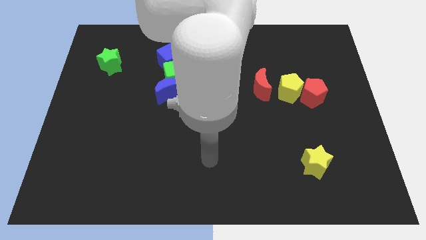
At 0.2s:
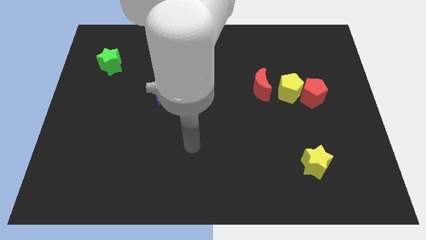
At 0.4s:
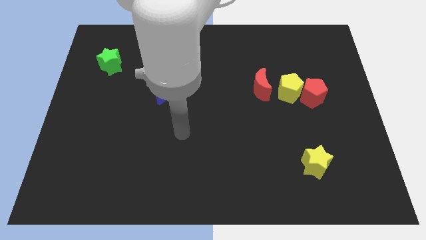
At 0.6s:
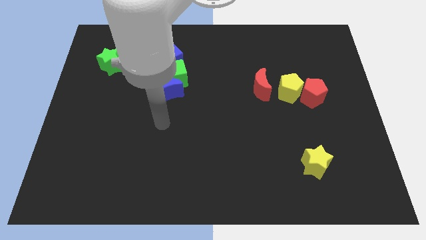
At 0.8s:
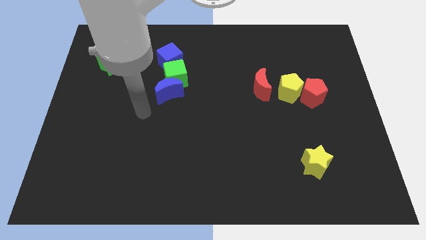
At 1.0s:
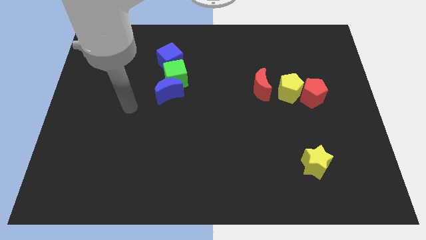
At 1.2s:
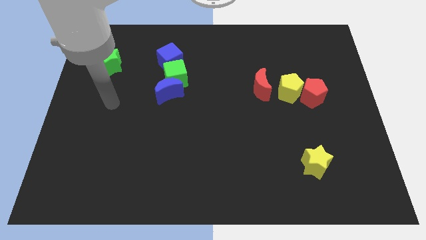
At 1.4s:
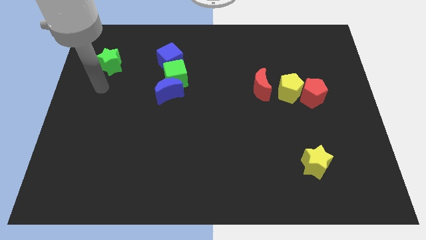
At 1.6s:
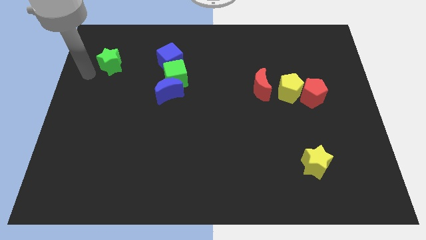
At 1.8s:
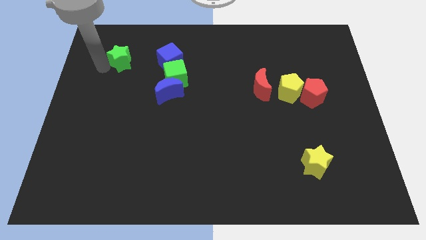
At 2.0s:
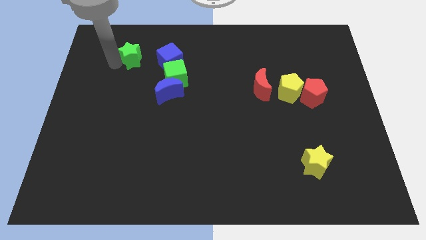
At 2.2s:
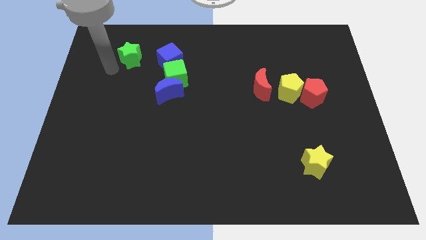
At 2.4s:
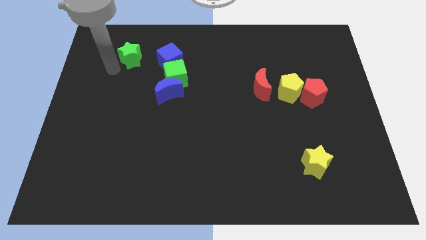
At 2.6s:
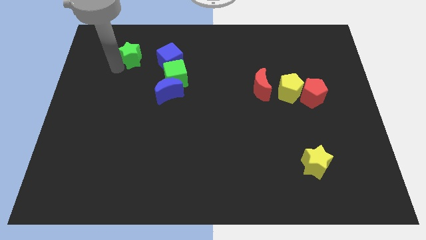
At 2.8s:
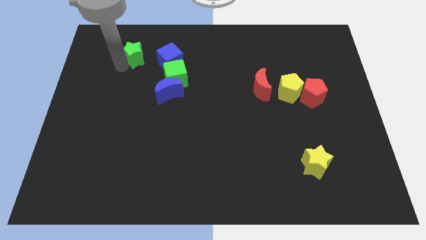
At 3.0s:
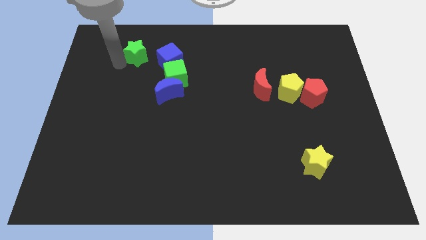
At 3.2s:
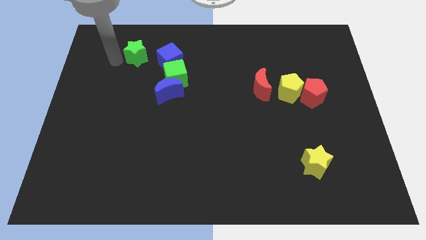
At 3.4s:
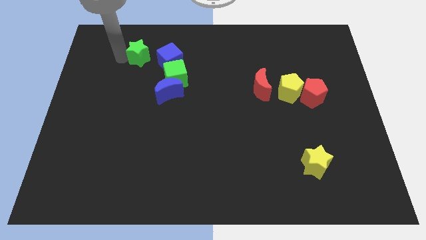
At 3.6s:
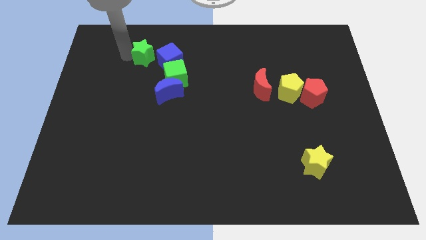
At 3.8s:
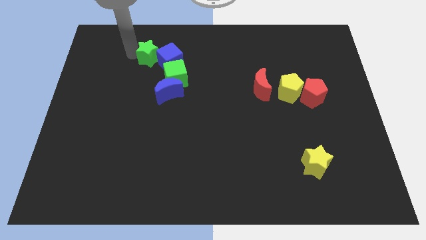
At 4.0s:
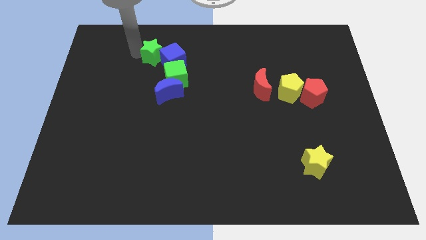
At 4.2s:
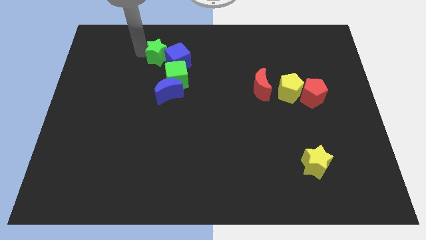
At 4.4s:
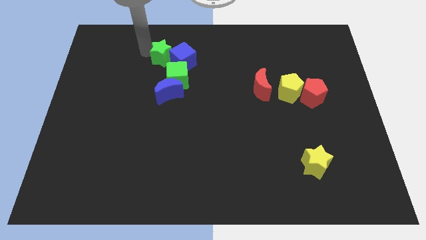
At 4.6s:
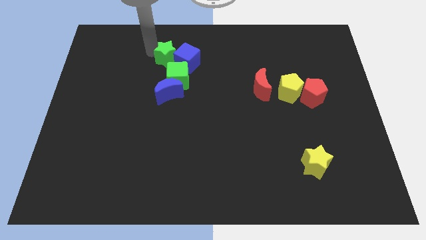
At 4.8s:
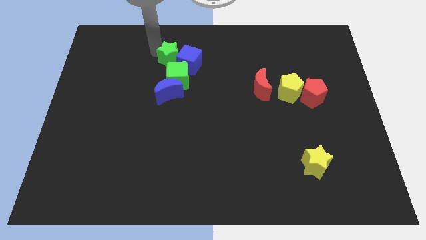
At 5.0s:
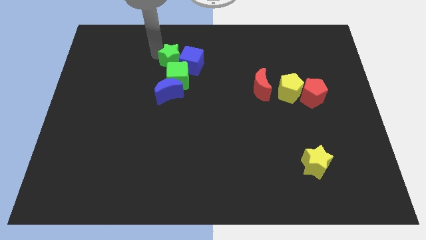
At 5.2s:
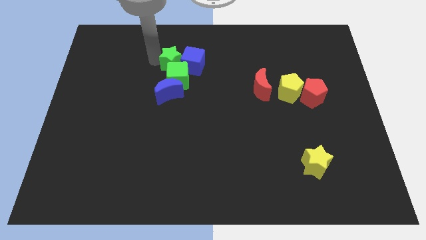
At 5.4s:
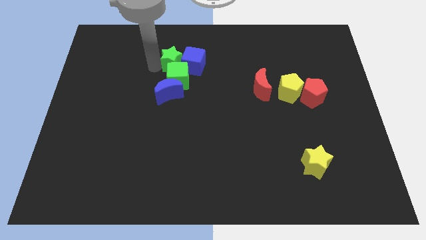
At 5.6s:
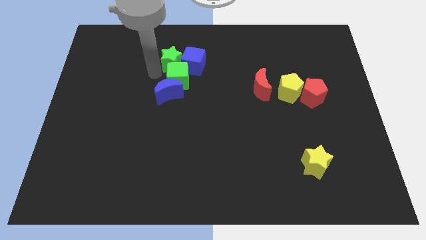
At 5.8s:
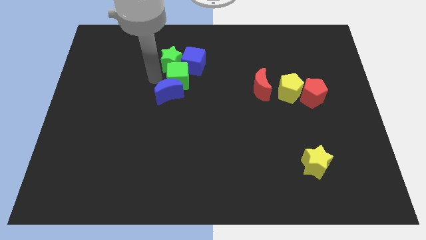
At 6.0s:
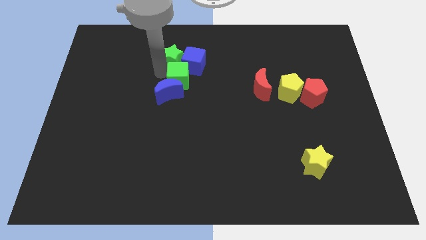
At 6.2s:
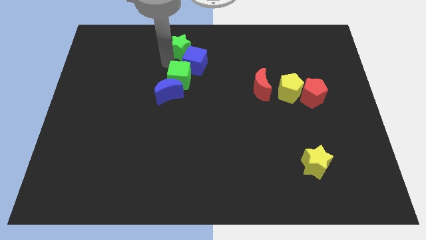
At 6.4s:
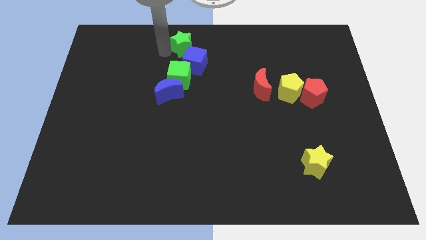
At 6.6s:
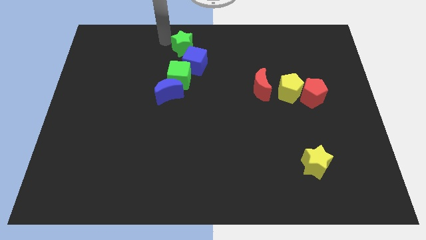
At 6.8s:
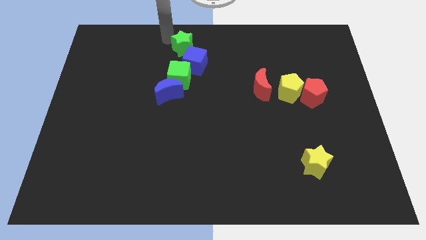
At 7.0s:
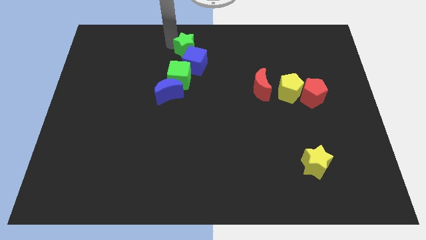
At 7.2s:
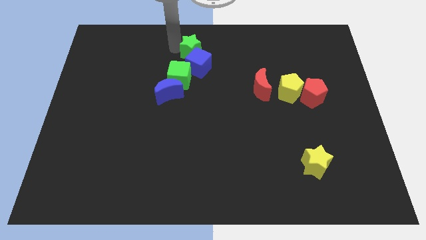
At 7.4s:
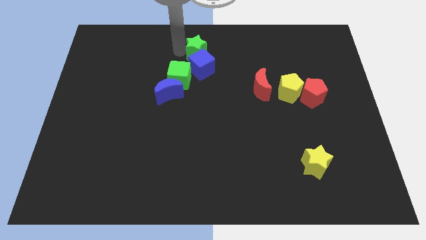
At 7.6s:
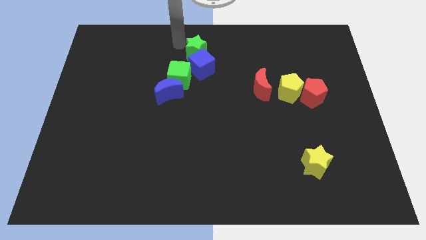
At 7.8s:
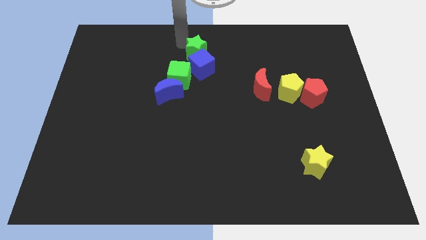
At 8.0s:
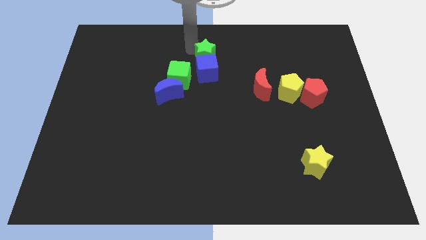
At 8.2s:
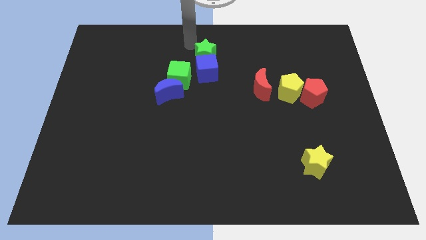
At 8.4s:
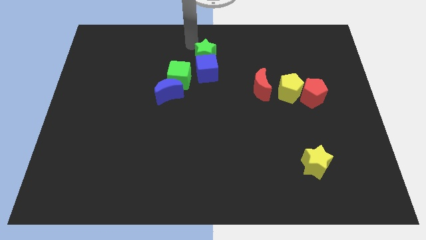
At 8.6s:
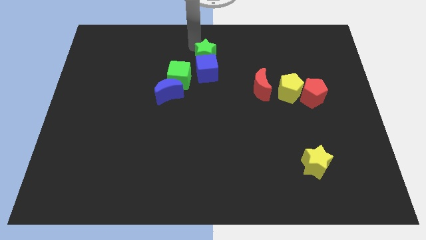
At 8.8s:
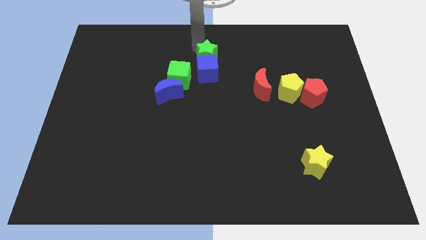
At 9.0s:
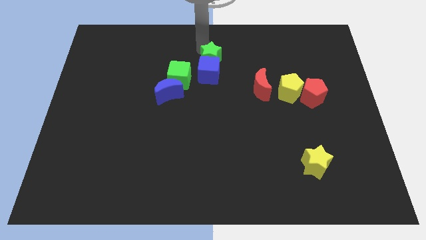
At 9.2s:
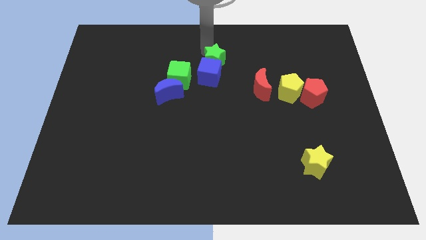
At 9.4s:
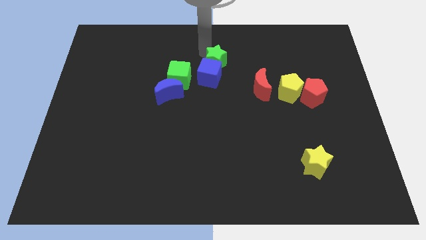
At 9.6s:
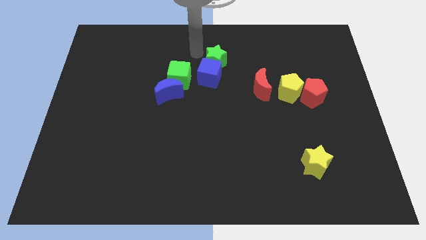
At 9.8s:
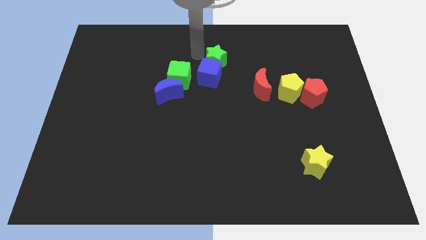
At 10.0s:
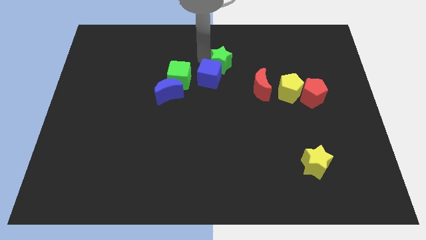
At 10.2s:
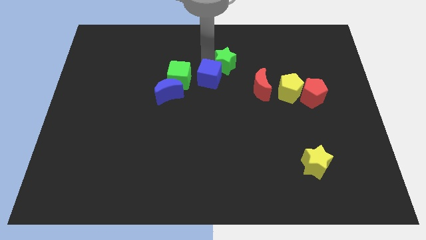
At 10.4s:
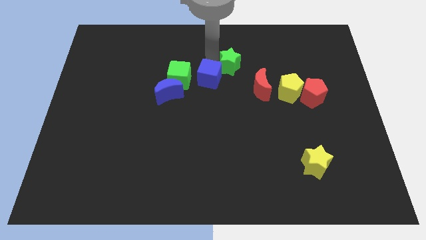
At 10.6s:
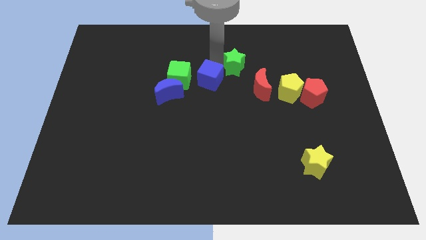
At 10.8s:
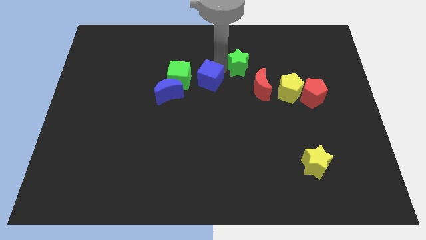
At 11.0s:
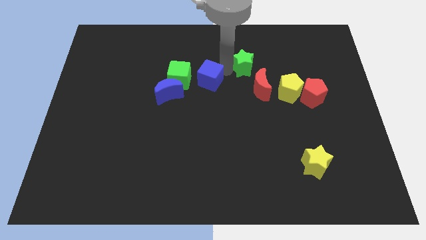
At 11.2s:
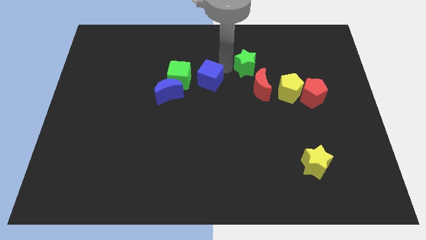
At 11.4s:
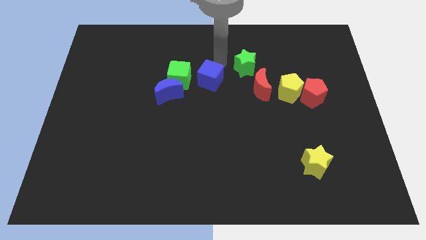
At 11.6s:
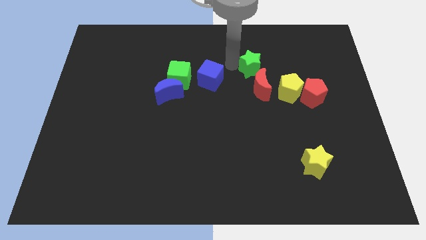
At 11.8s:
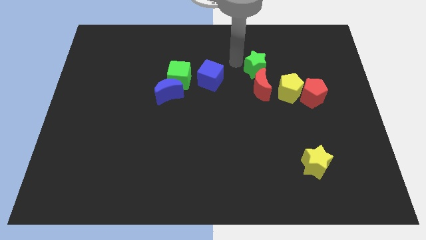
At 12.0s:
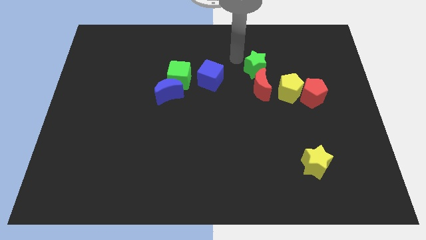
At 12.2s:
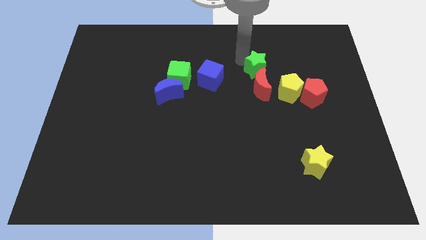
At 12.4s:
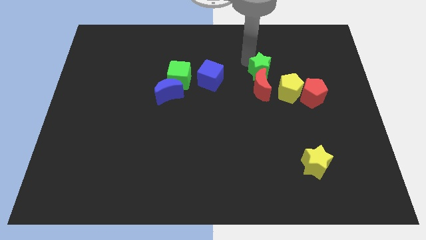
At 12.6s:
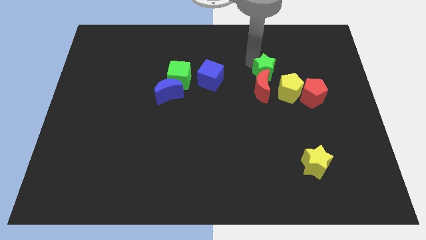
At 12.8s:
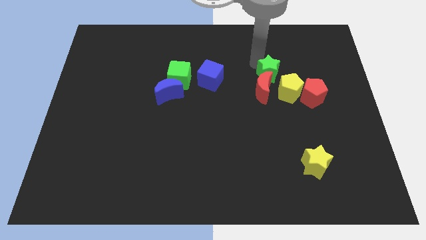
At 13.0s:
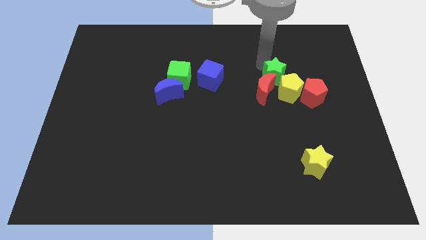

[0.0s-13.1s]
put the green star towards the yellow pentagon
